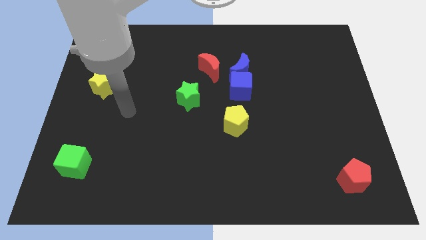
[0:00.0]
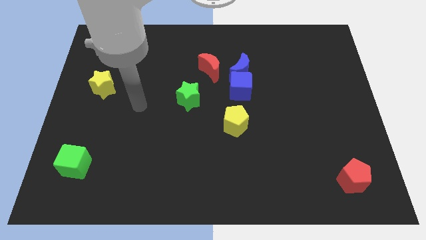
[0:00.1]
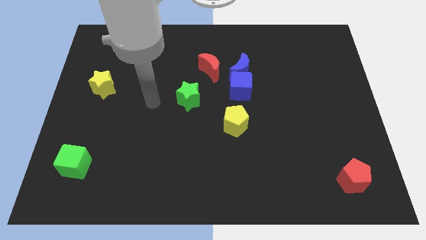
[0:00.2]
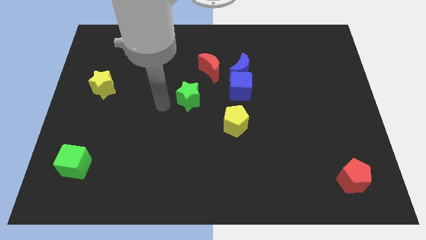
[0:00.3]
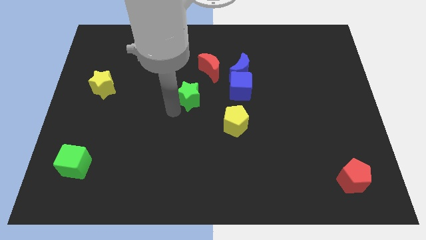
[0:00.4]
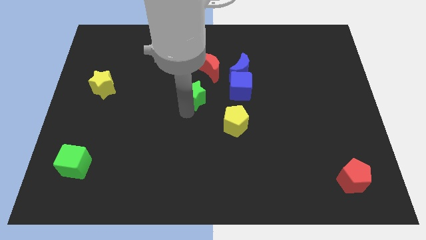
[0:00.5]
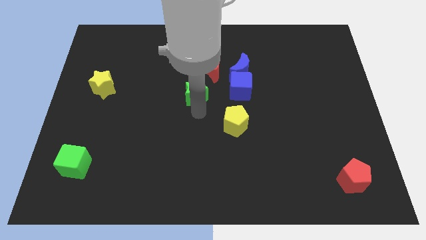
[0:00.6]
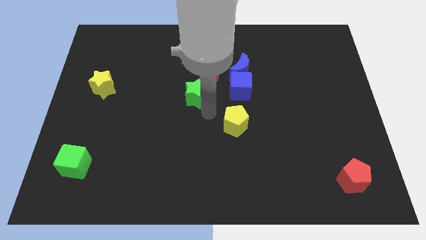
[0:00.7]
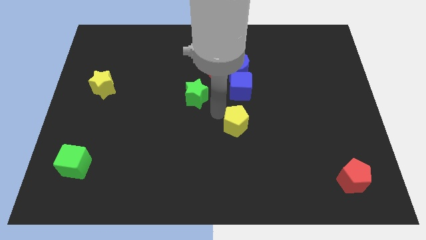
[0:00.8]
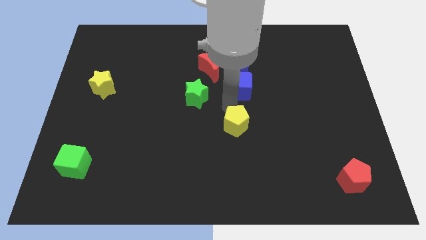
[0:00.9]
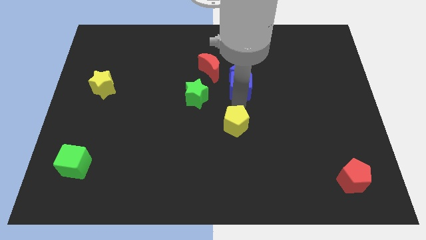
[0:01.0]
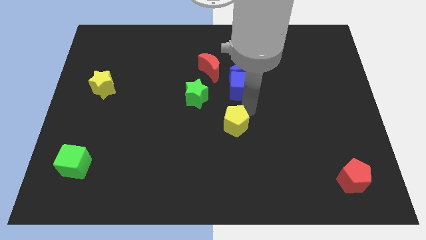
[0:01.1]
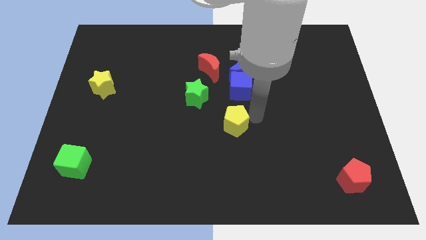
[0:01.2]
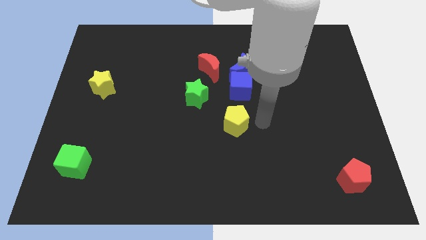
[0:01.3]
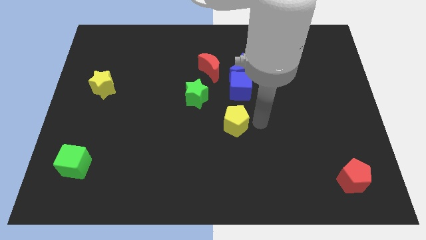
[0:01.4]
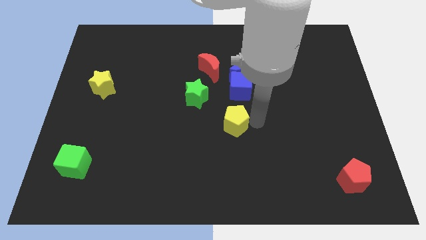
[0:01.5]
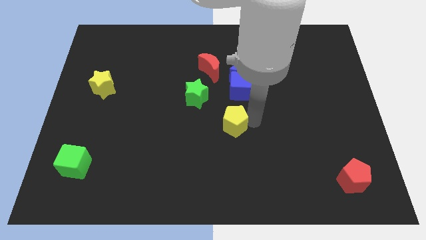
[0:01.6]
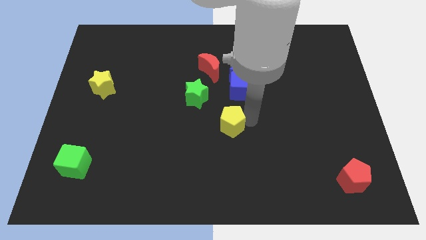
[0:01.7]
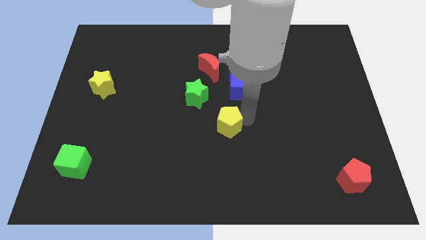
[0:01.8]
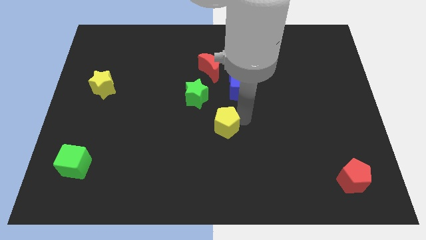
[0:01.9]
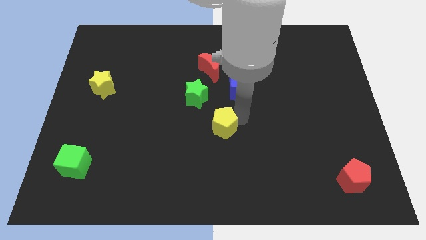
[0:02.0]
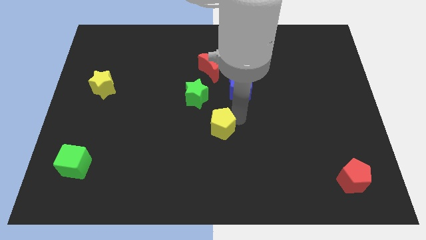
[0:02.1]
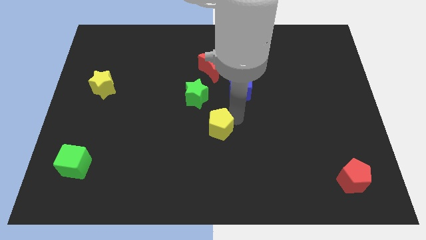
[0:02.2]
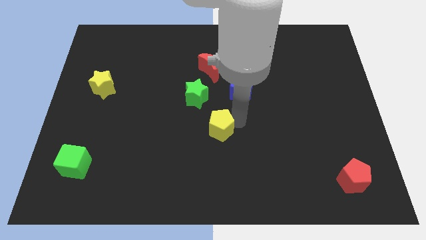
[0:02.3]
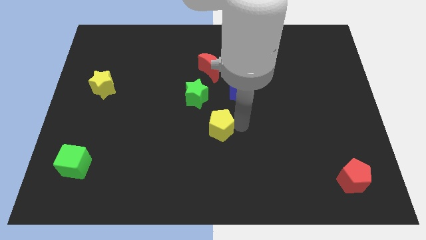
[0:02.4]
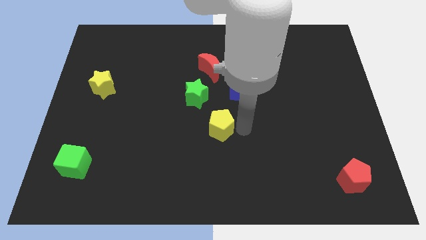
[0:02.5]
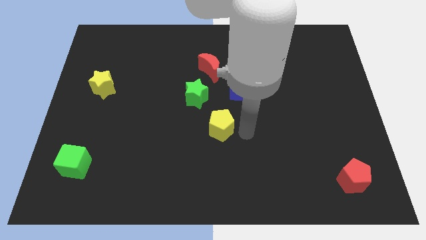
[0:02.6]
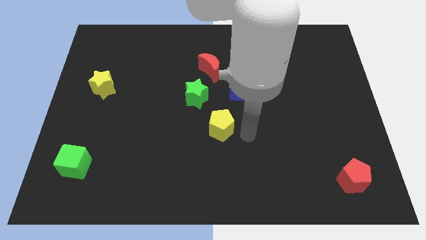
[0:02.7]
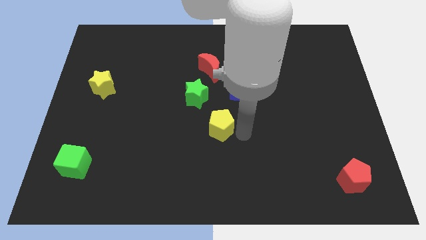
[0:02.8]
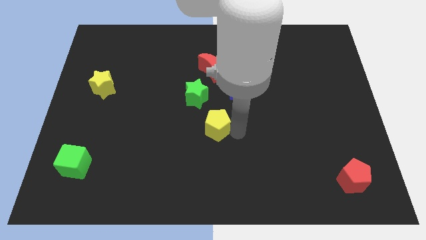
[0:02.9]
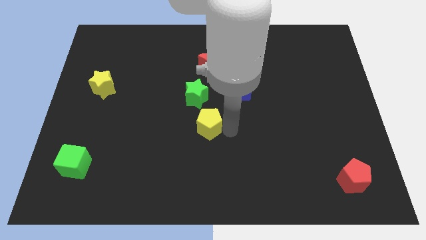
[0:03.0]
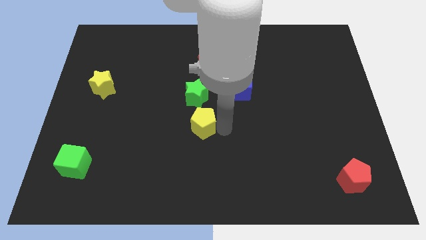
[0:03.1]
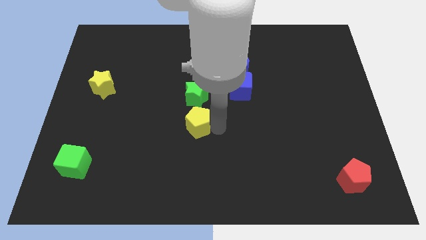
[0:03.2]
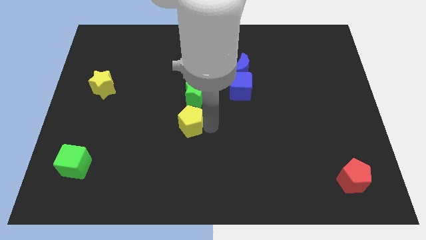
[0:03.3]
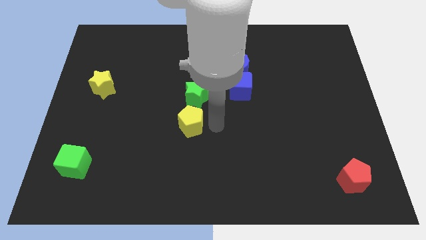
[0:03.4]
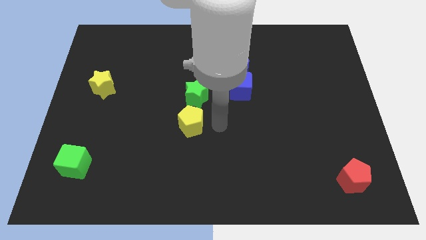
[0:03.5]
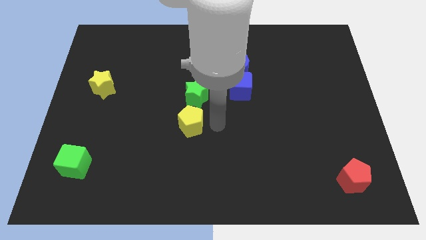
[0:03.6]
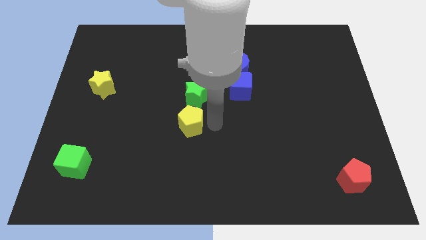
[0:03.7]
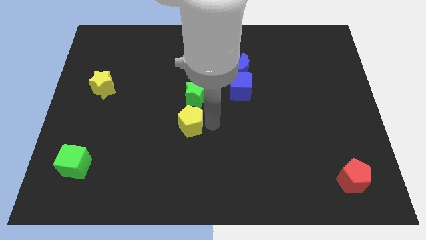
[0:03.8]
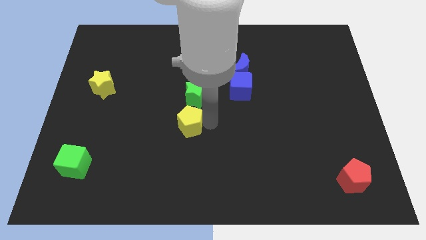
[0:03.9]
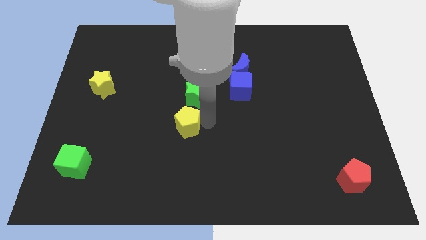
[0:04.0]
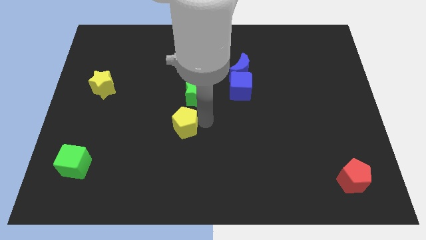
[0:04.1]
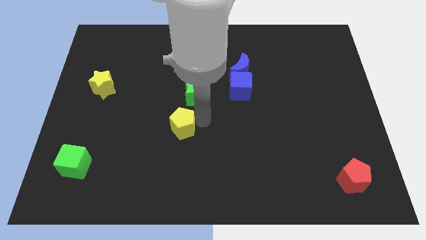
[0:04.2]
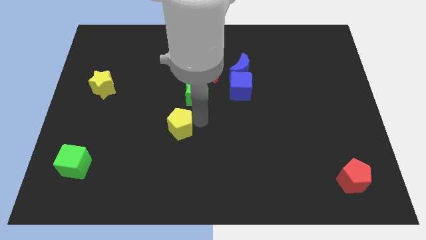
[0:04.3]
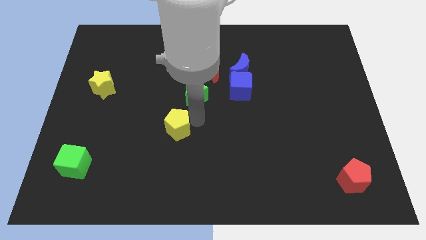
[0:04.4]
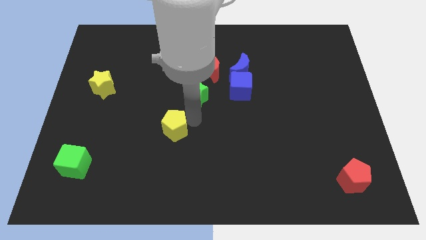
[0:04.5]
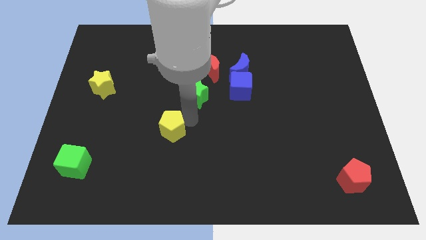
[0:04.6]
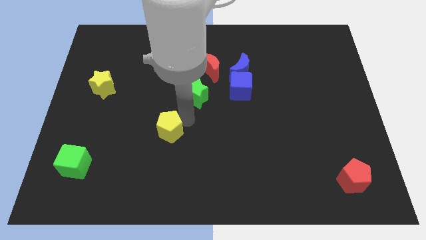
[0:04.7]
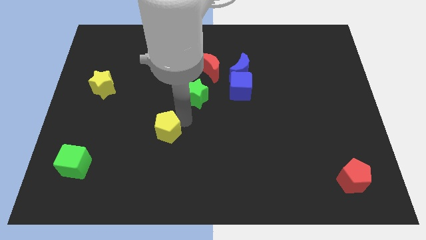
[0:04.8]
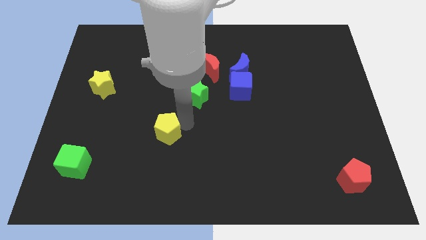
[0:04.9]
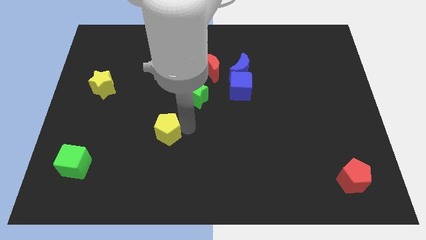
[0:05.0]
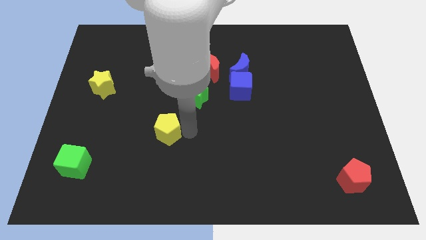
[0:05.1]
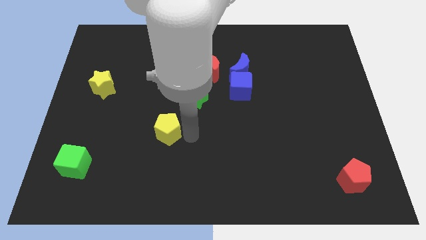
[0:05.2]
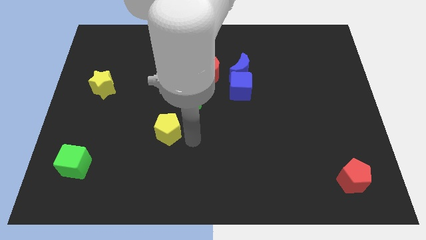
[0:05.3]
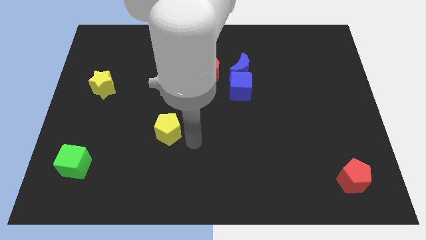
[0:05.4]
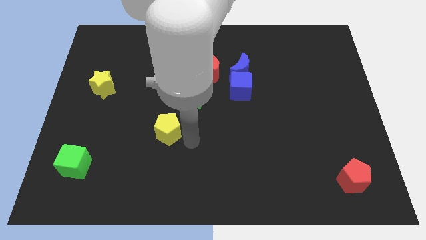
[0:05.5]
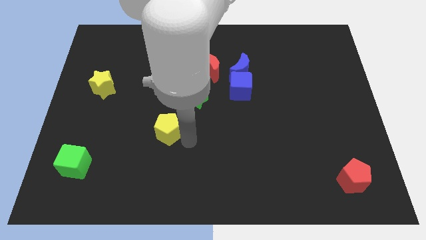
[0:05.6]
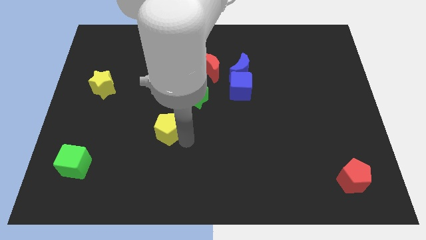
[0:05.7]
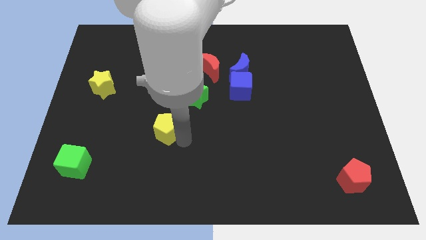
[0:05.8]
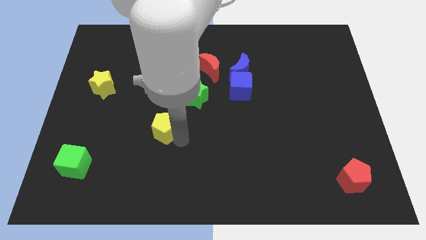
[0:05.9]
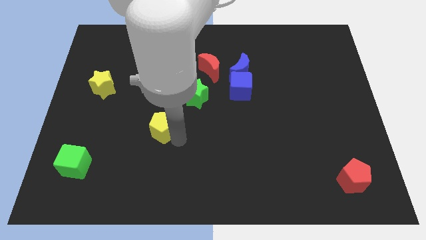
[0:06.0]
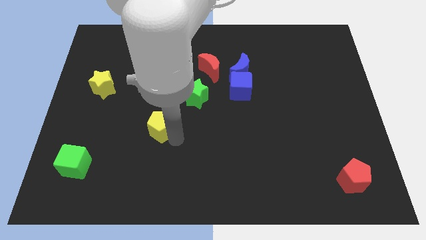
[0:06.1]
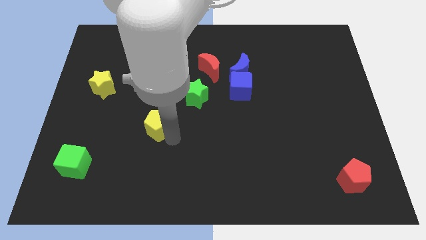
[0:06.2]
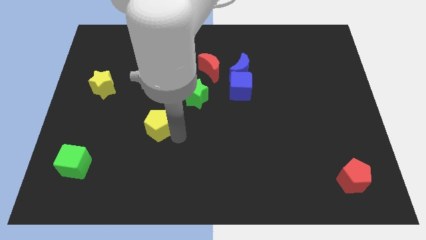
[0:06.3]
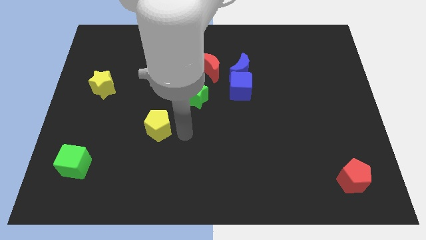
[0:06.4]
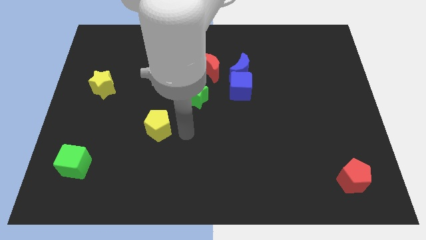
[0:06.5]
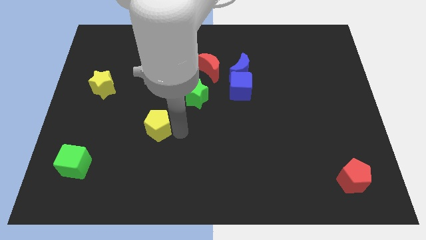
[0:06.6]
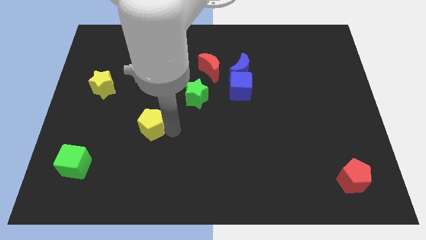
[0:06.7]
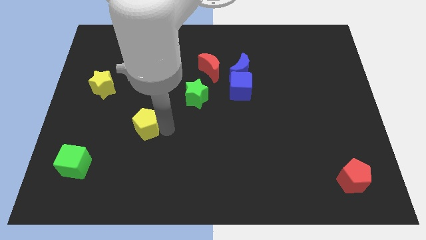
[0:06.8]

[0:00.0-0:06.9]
move the yellow pentagon to the left

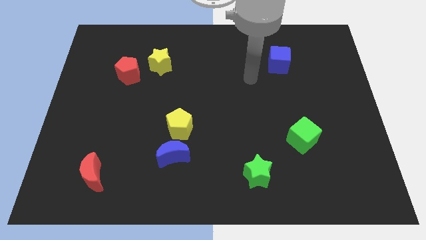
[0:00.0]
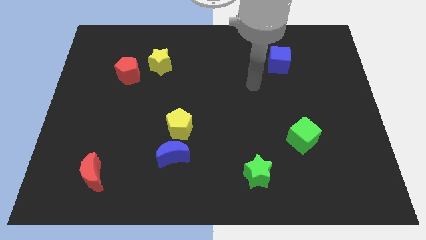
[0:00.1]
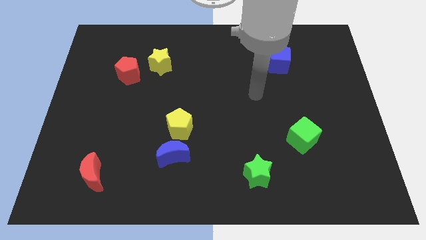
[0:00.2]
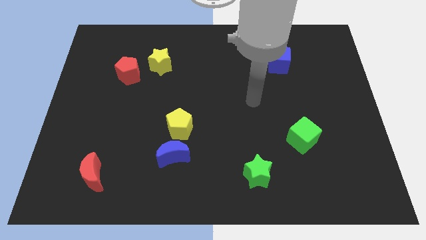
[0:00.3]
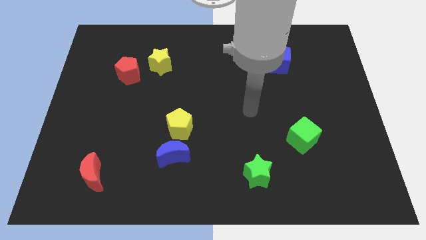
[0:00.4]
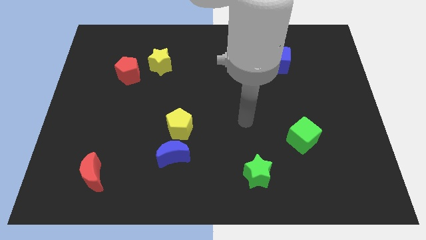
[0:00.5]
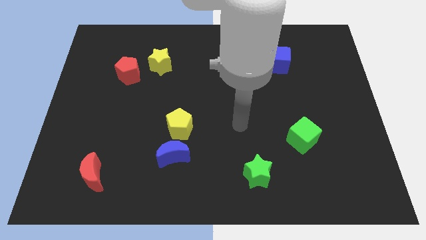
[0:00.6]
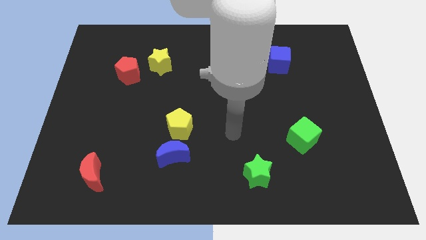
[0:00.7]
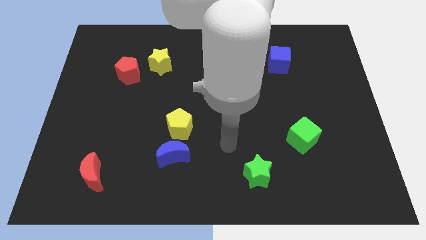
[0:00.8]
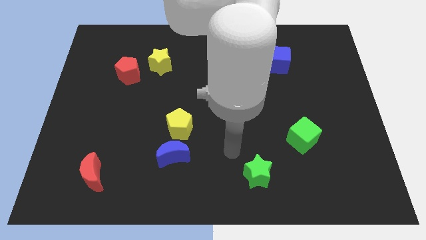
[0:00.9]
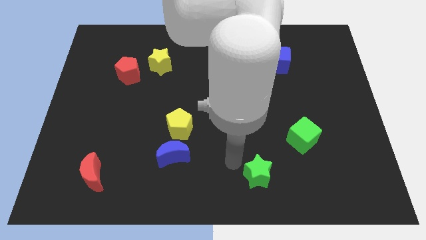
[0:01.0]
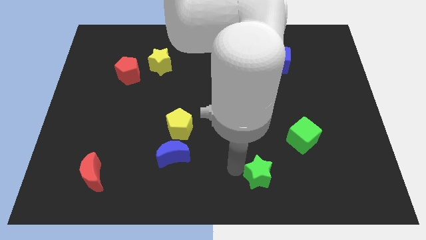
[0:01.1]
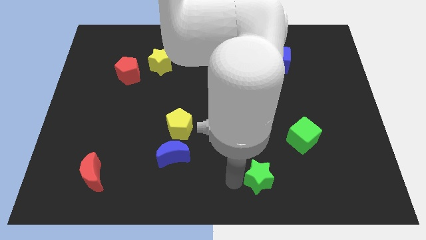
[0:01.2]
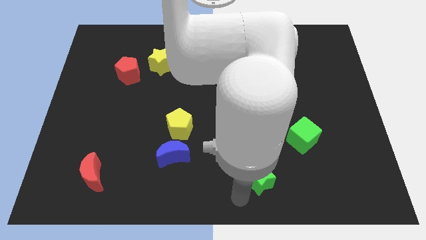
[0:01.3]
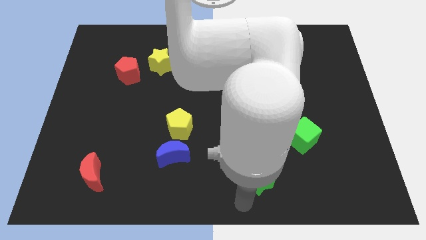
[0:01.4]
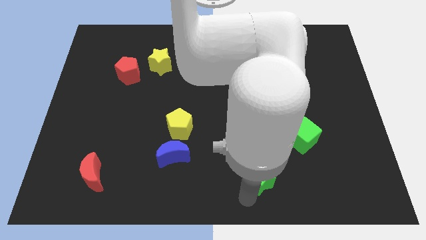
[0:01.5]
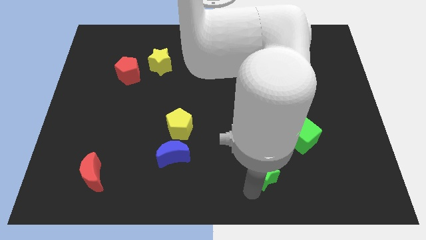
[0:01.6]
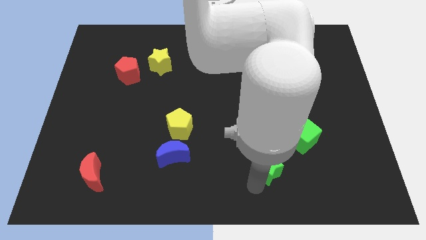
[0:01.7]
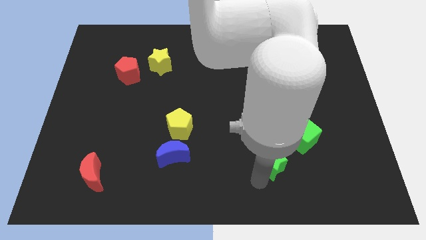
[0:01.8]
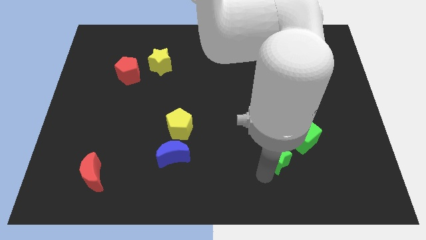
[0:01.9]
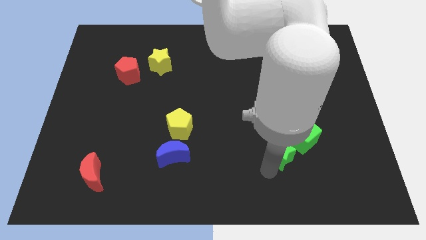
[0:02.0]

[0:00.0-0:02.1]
slightly push the green star up and then to the right
